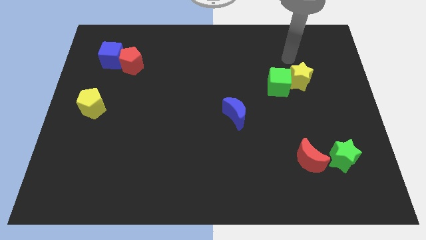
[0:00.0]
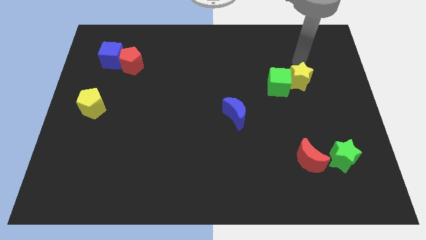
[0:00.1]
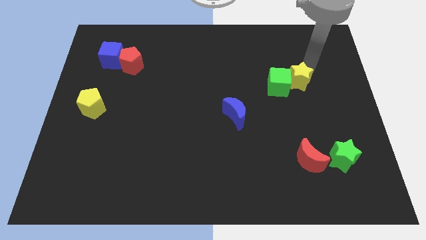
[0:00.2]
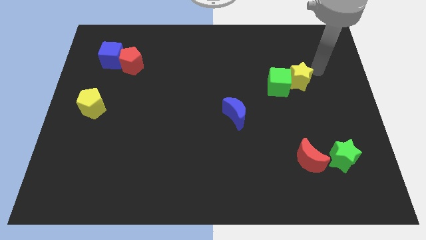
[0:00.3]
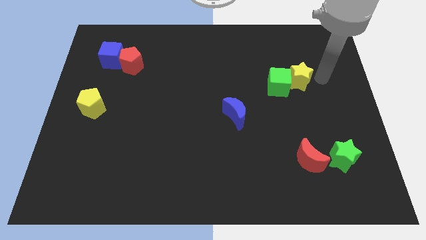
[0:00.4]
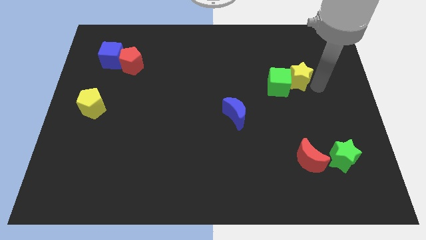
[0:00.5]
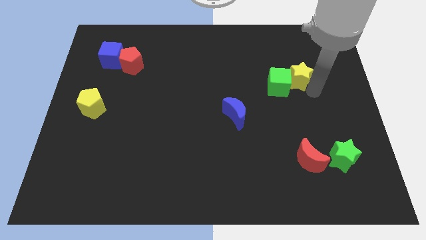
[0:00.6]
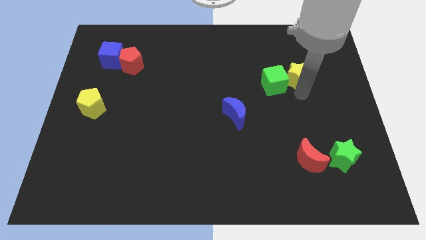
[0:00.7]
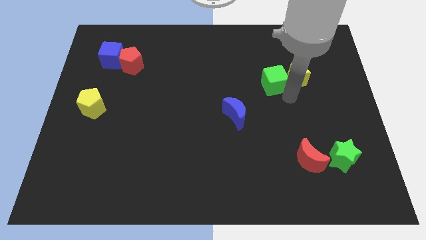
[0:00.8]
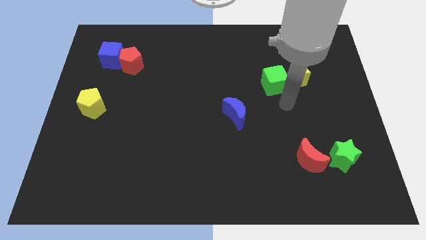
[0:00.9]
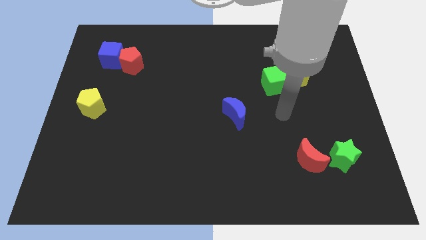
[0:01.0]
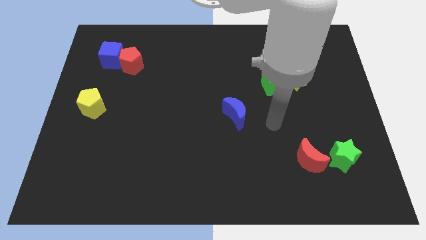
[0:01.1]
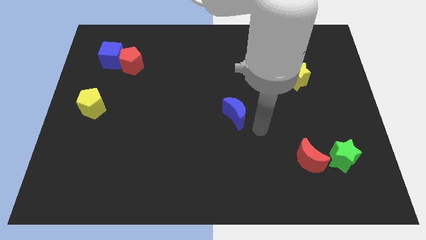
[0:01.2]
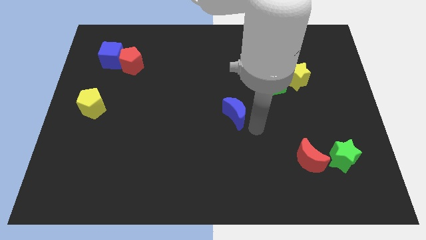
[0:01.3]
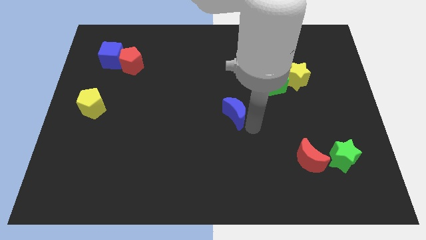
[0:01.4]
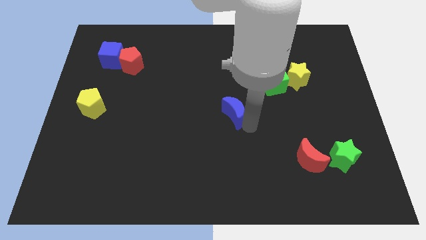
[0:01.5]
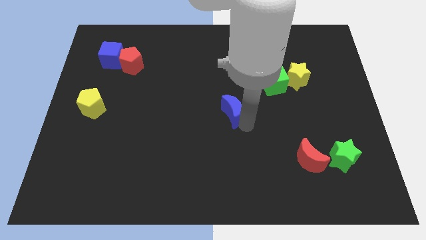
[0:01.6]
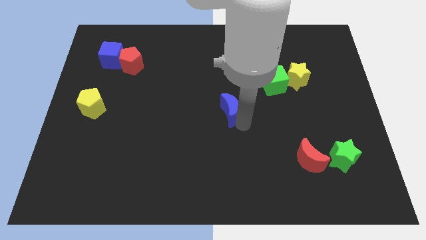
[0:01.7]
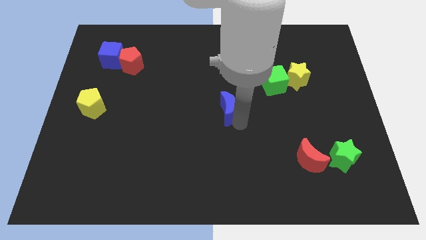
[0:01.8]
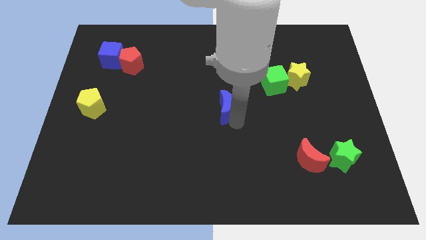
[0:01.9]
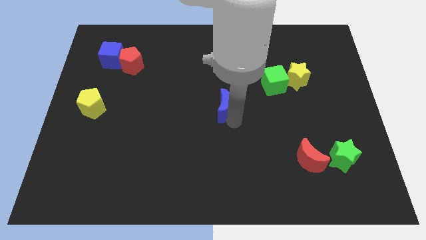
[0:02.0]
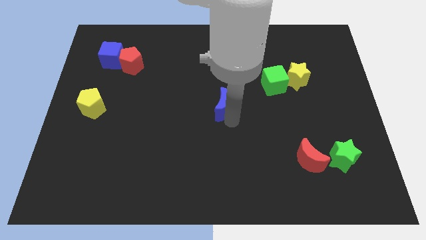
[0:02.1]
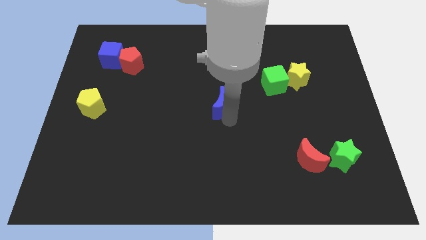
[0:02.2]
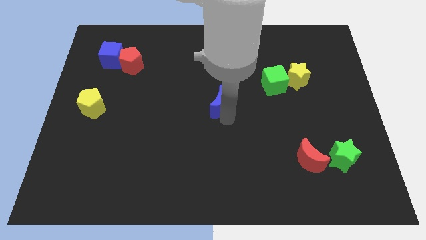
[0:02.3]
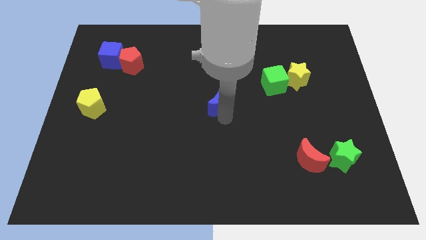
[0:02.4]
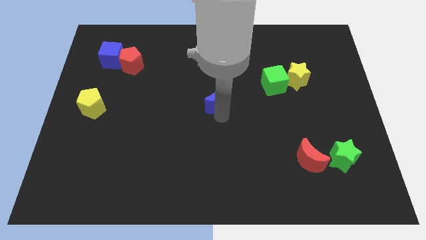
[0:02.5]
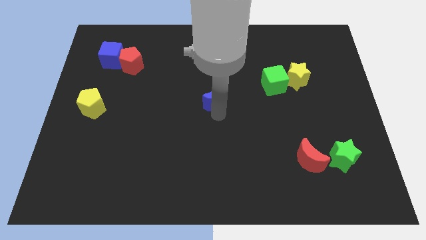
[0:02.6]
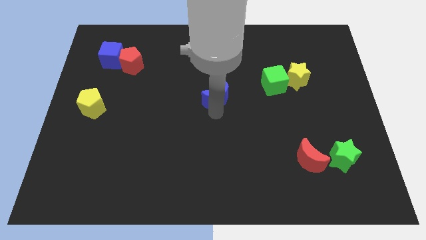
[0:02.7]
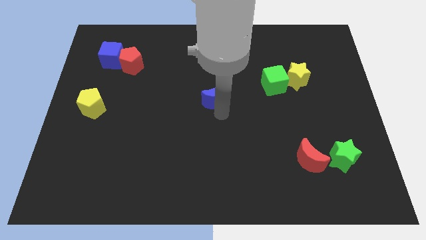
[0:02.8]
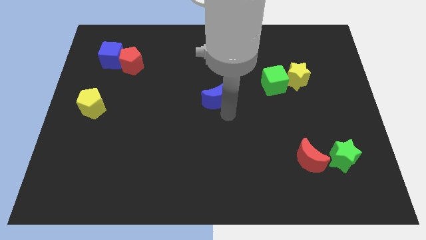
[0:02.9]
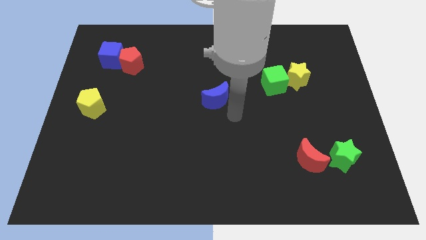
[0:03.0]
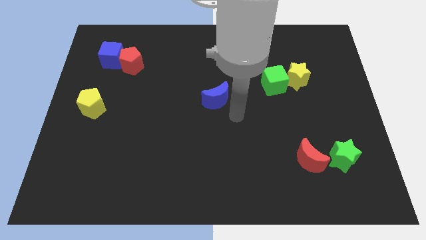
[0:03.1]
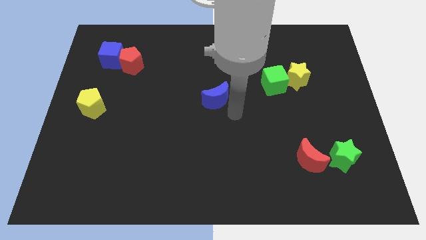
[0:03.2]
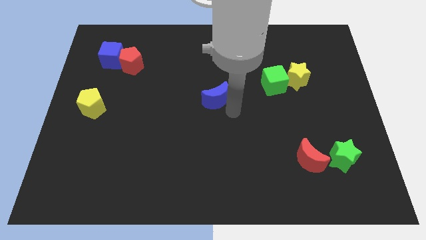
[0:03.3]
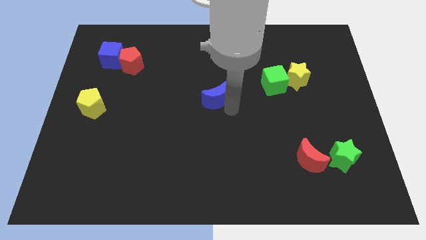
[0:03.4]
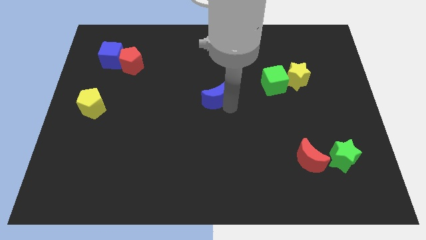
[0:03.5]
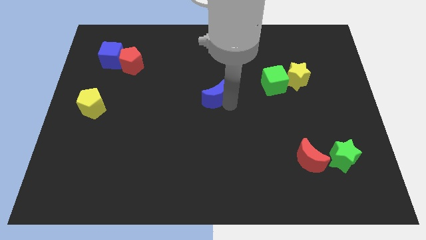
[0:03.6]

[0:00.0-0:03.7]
slightly slide the blue moon upwards and then left

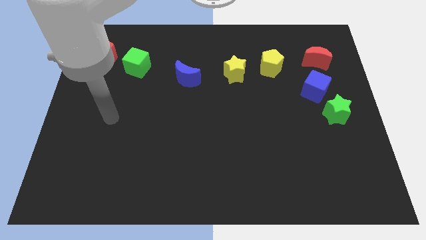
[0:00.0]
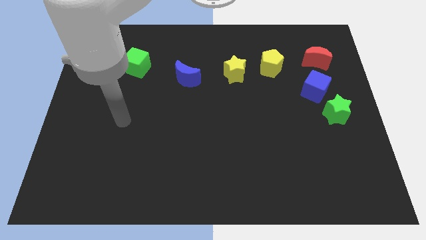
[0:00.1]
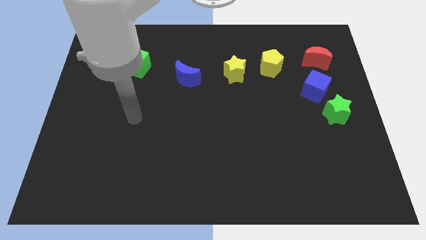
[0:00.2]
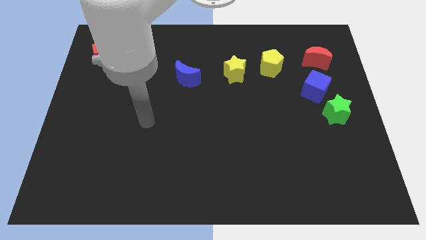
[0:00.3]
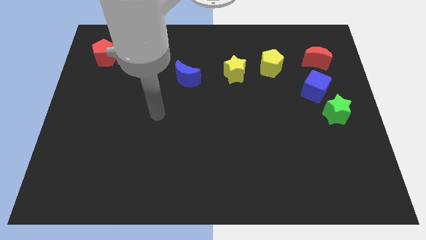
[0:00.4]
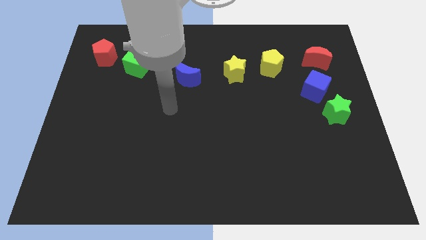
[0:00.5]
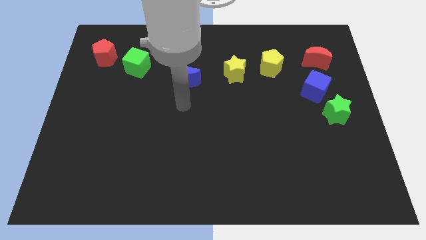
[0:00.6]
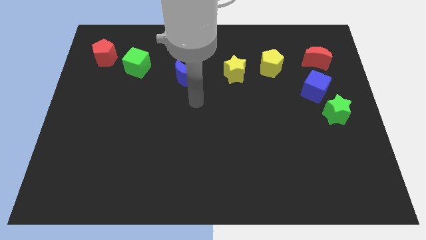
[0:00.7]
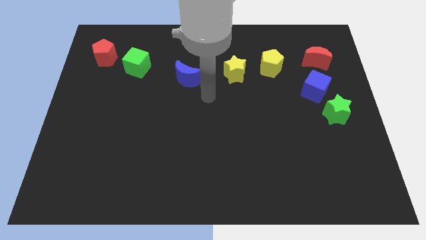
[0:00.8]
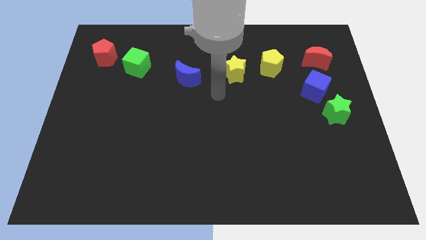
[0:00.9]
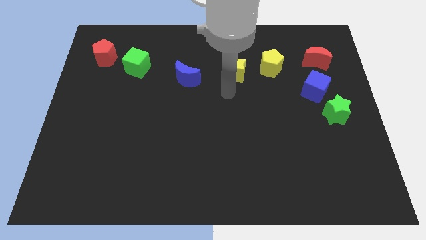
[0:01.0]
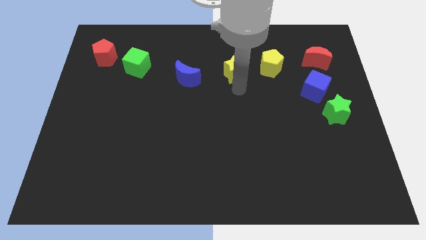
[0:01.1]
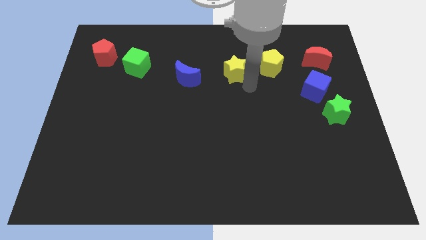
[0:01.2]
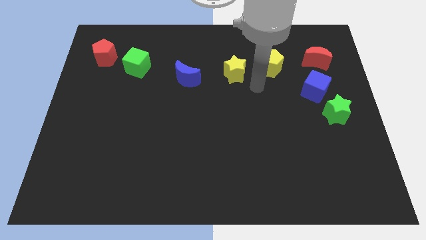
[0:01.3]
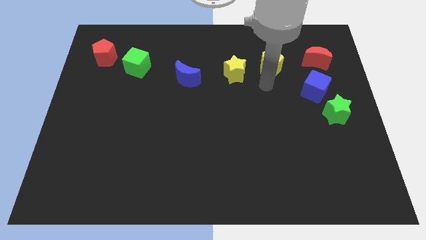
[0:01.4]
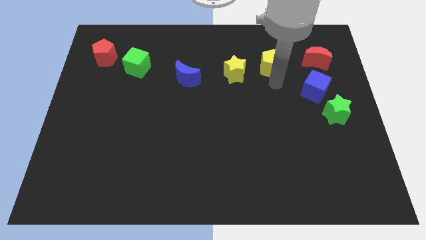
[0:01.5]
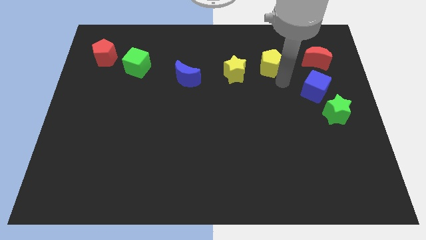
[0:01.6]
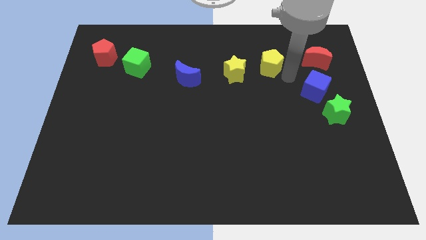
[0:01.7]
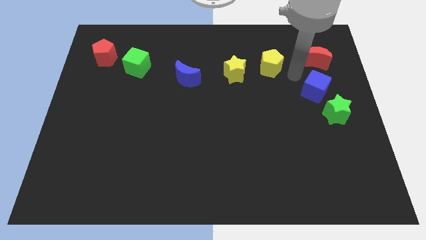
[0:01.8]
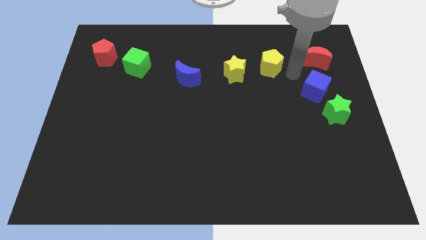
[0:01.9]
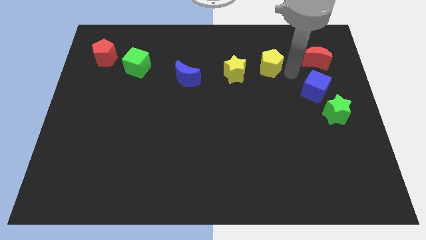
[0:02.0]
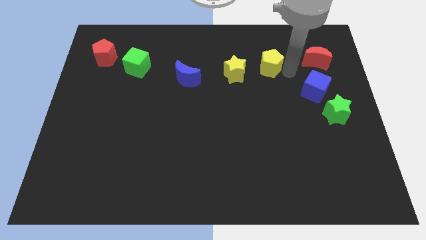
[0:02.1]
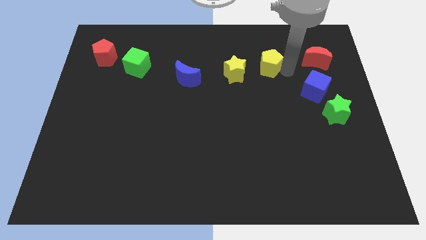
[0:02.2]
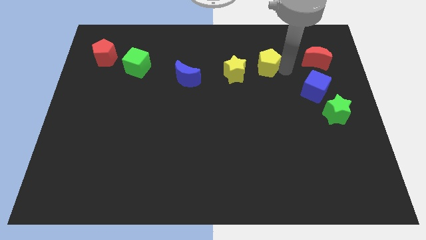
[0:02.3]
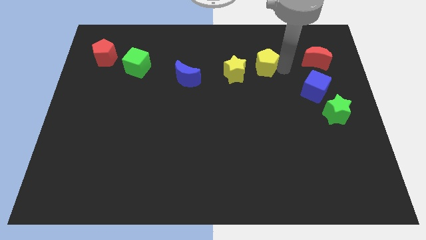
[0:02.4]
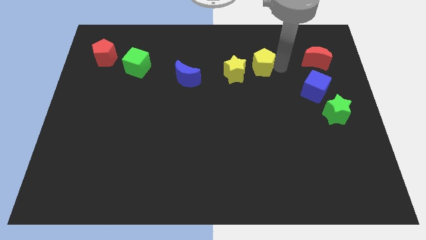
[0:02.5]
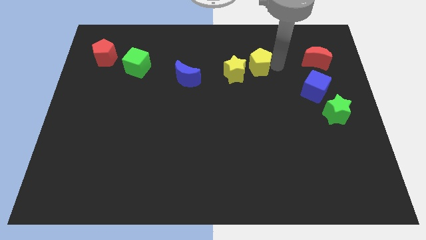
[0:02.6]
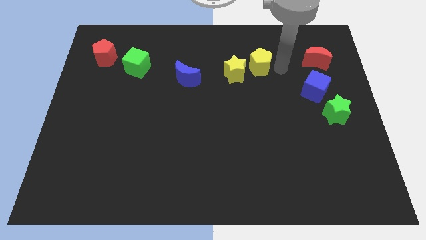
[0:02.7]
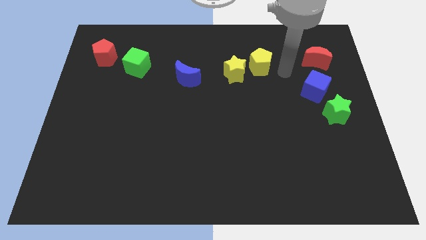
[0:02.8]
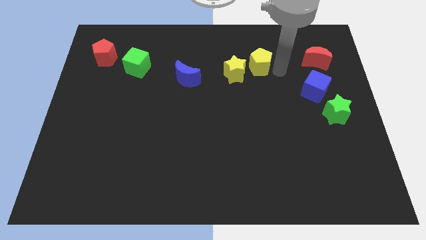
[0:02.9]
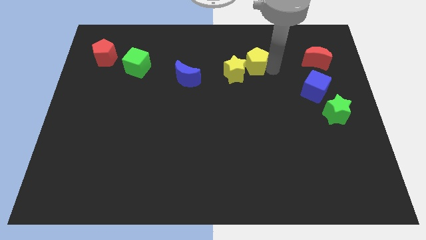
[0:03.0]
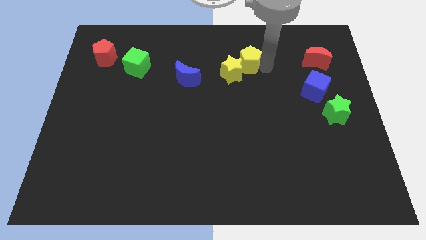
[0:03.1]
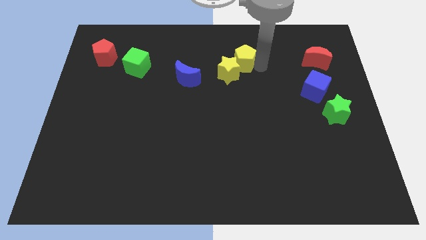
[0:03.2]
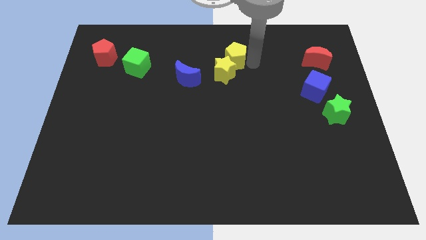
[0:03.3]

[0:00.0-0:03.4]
slide the yellow pentagon left a little bit

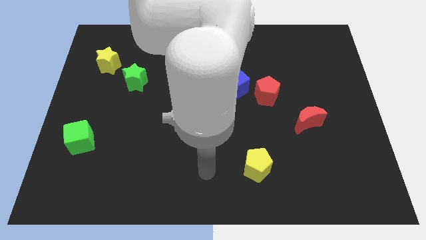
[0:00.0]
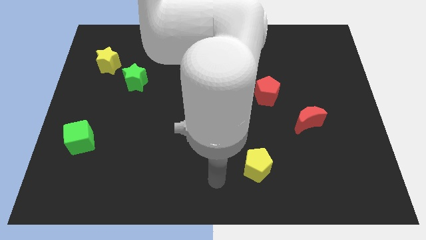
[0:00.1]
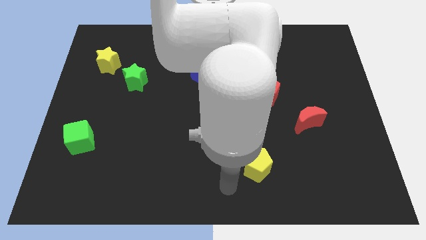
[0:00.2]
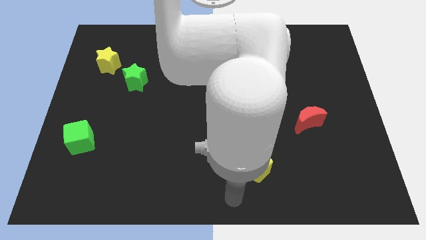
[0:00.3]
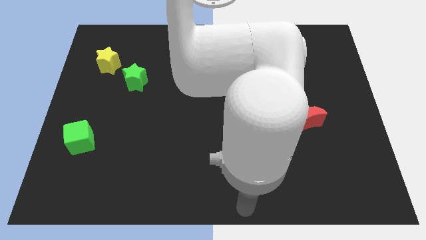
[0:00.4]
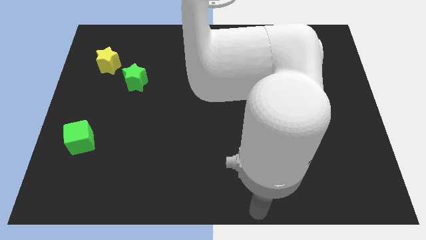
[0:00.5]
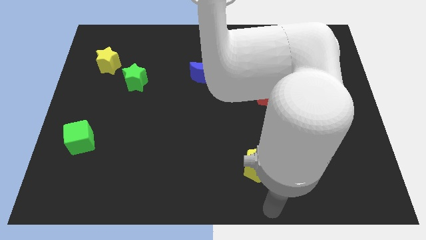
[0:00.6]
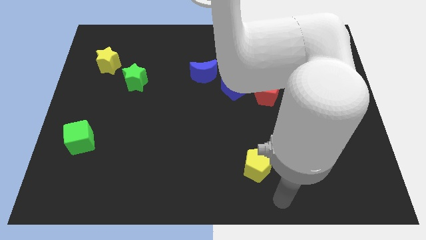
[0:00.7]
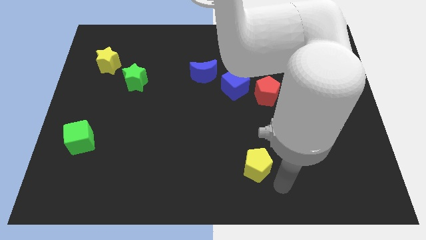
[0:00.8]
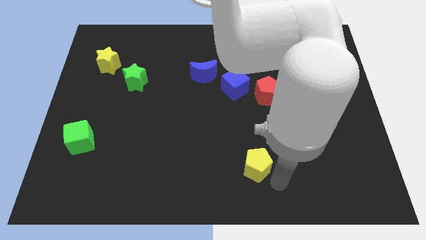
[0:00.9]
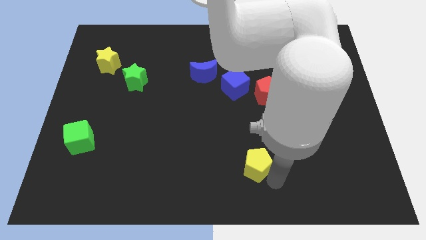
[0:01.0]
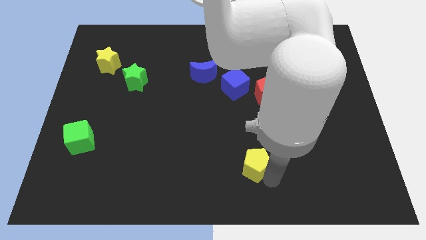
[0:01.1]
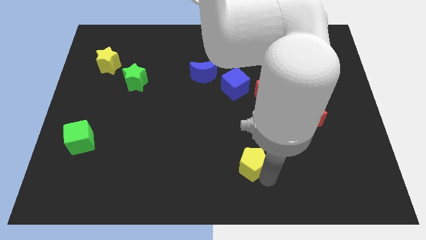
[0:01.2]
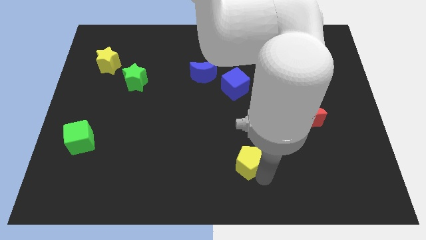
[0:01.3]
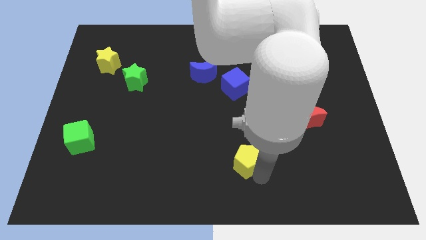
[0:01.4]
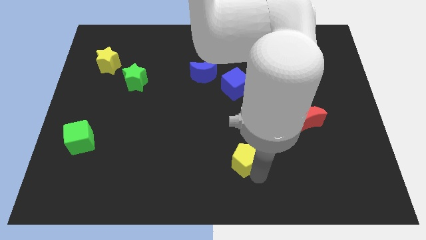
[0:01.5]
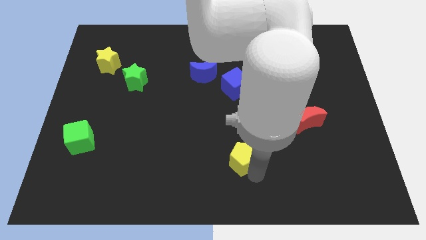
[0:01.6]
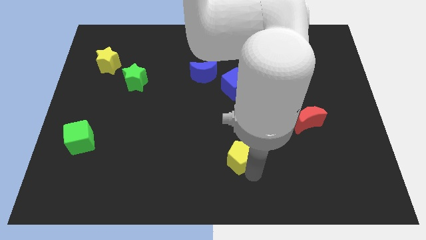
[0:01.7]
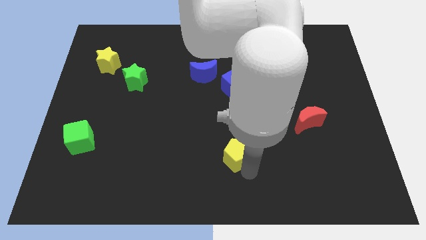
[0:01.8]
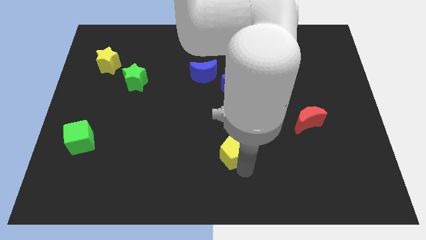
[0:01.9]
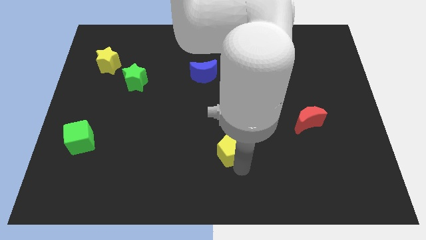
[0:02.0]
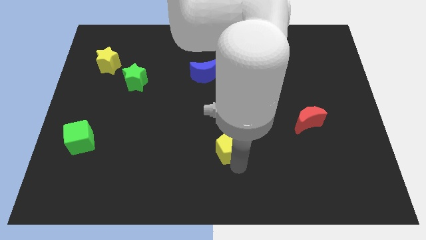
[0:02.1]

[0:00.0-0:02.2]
slightly slide the yellow pentagon upwards and left diagonally
